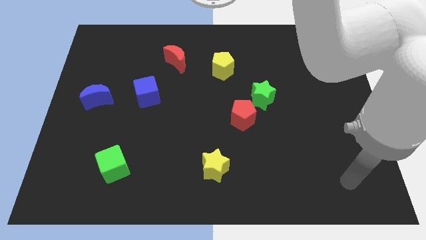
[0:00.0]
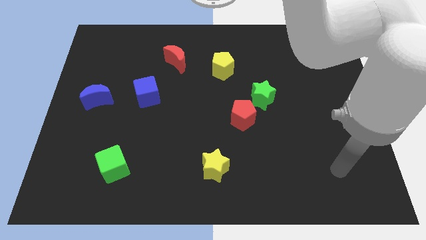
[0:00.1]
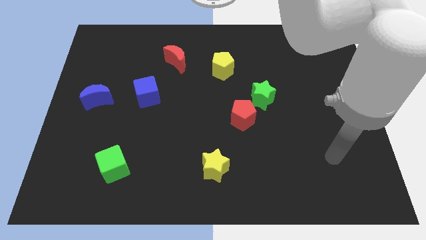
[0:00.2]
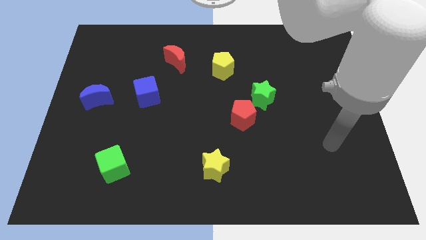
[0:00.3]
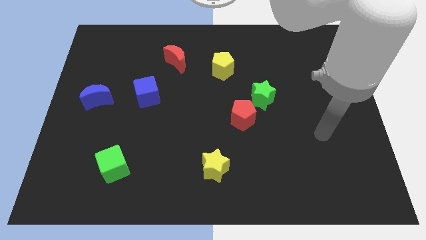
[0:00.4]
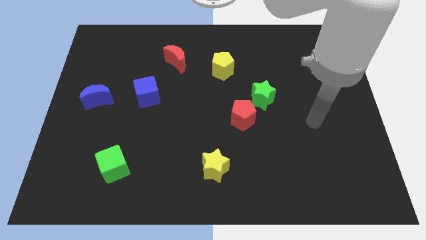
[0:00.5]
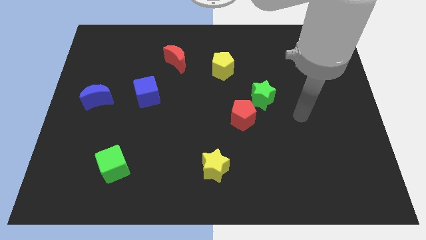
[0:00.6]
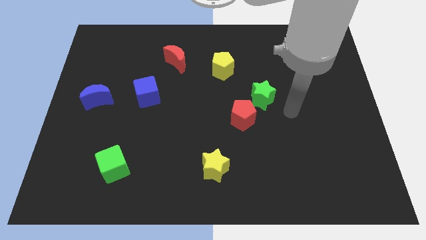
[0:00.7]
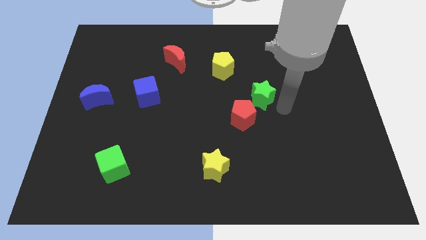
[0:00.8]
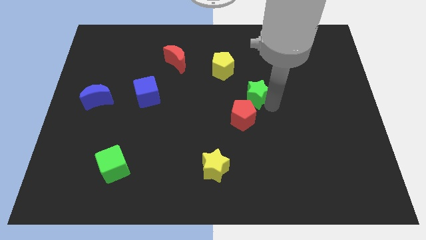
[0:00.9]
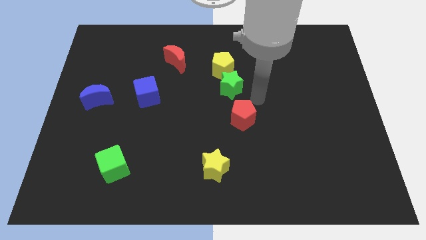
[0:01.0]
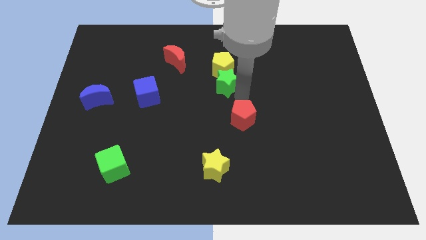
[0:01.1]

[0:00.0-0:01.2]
pull the red pentagon apart from the green star

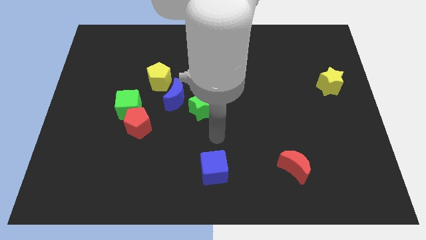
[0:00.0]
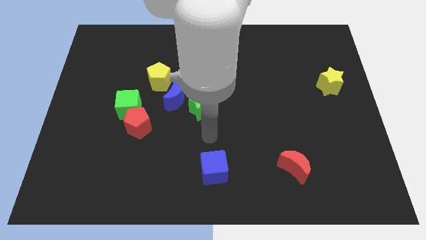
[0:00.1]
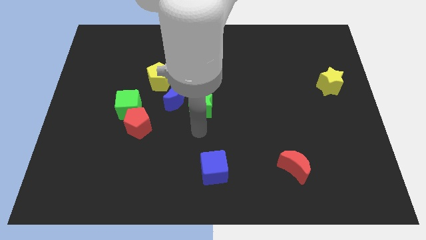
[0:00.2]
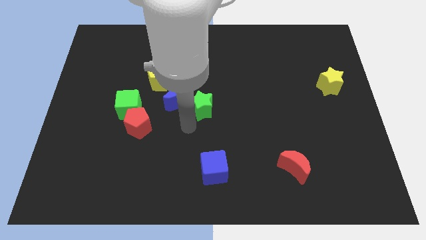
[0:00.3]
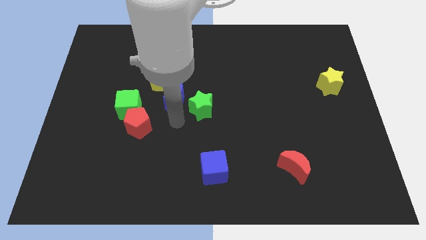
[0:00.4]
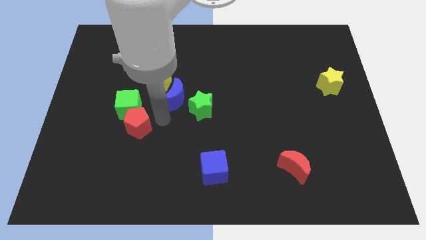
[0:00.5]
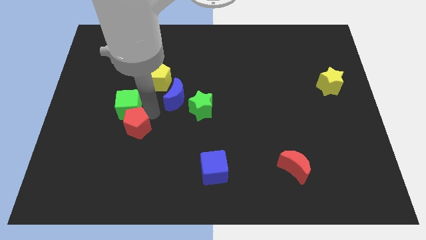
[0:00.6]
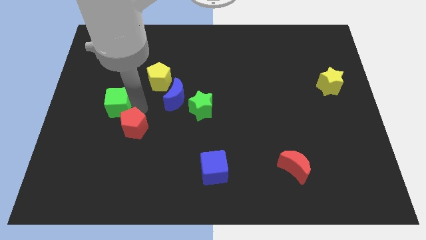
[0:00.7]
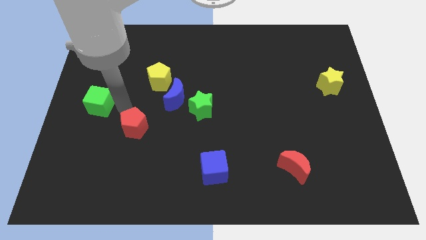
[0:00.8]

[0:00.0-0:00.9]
move the red pentagon away from the green cube

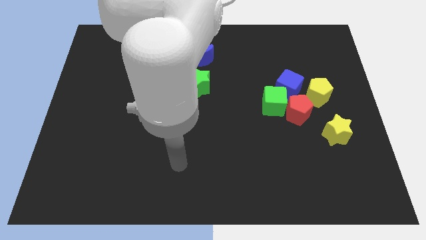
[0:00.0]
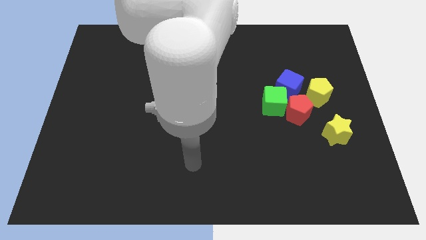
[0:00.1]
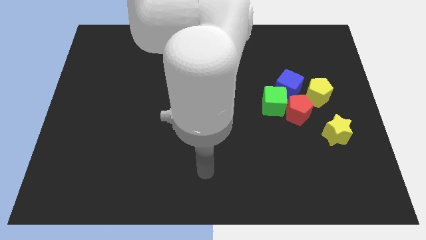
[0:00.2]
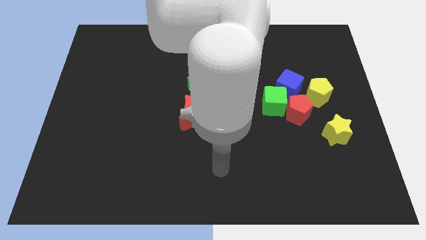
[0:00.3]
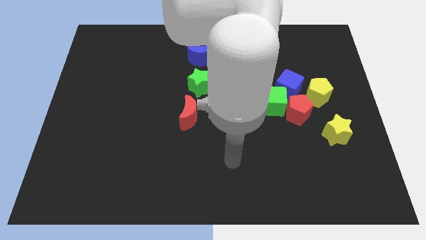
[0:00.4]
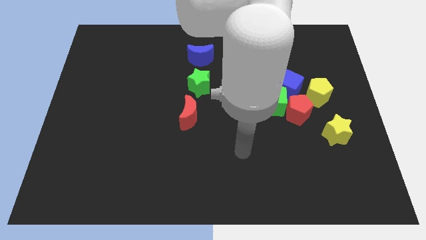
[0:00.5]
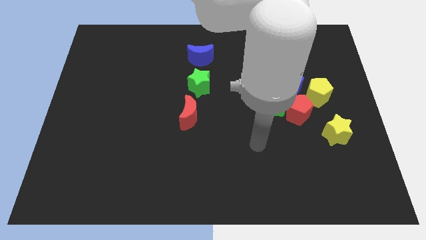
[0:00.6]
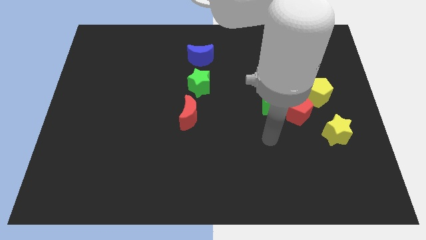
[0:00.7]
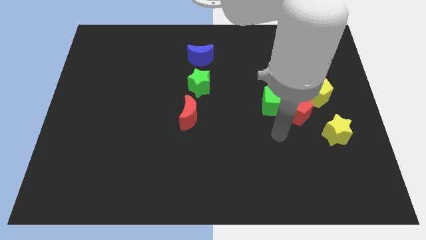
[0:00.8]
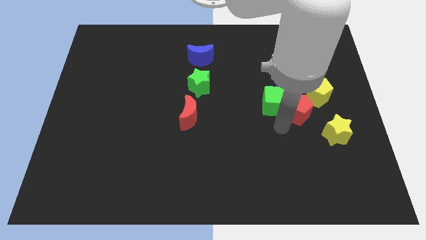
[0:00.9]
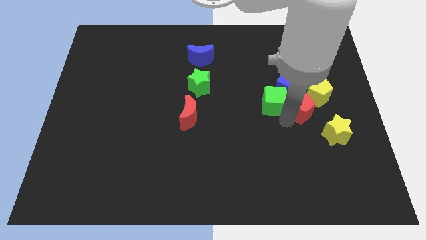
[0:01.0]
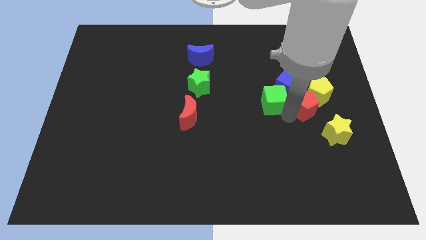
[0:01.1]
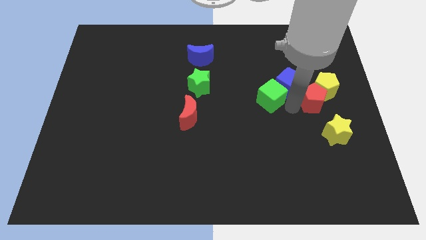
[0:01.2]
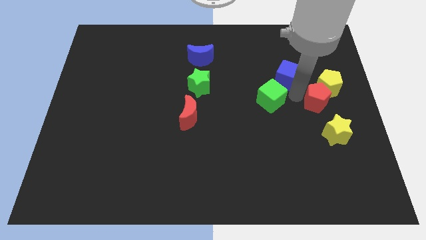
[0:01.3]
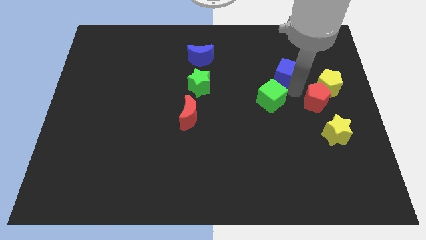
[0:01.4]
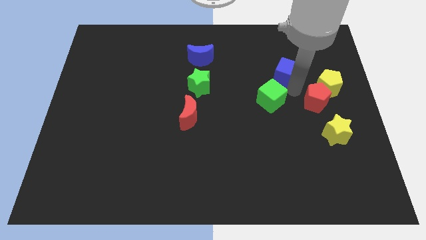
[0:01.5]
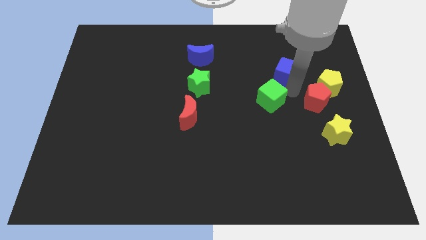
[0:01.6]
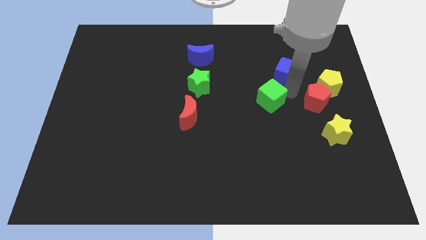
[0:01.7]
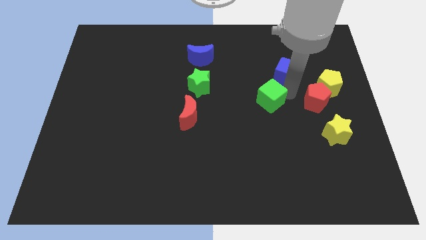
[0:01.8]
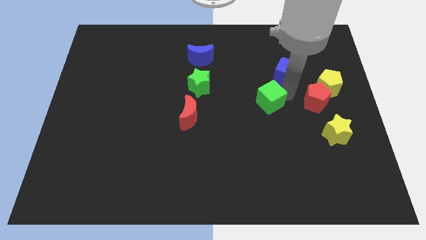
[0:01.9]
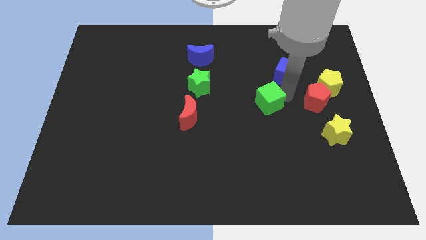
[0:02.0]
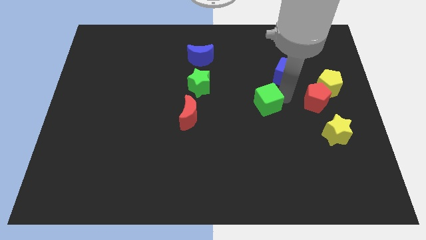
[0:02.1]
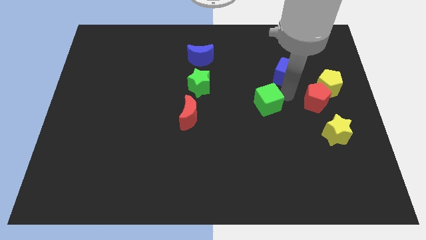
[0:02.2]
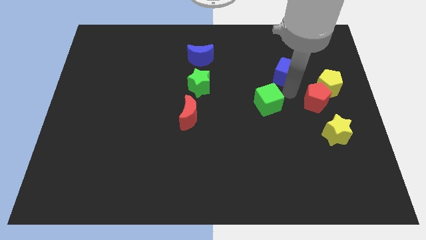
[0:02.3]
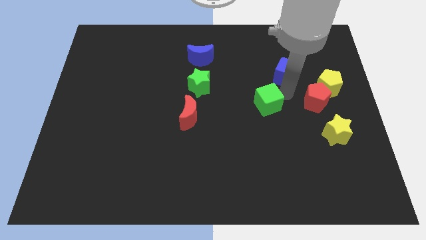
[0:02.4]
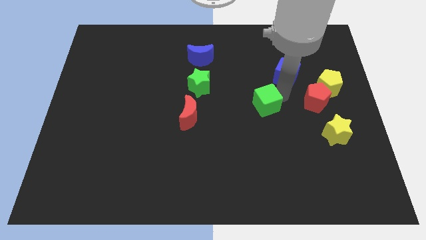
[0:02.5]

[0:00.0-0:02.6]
separate the green cube from the red pentagon and blue cube

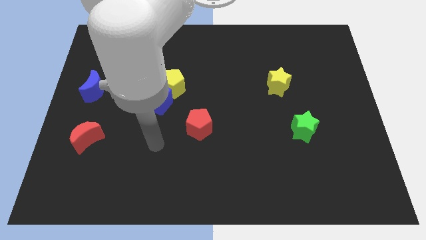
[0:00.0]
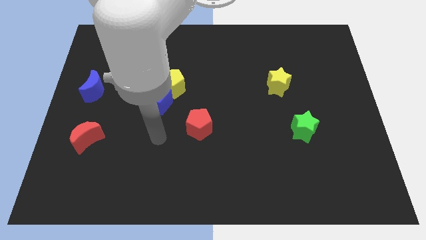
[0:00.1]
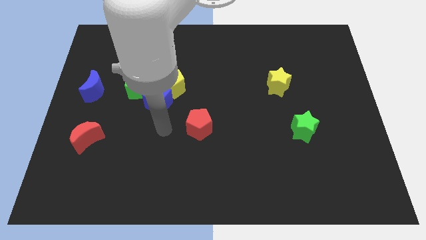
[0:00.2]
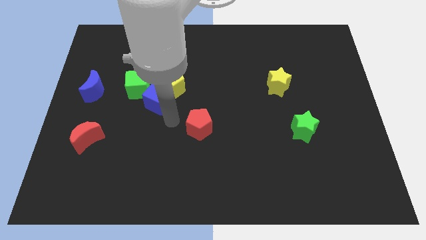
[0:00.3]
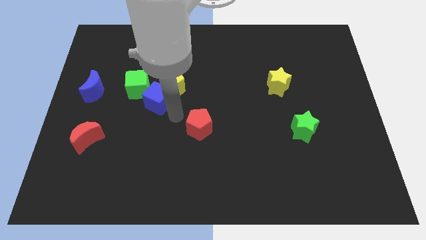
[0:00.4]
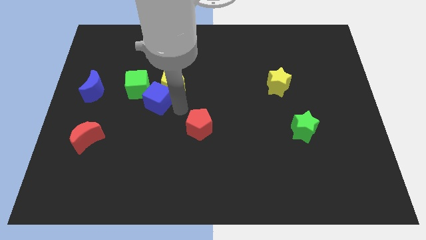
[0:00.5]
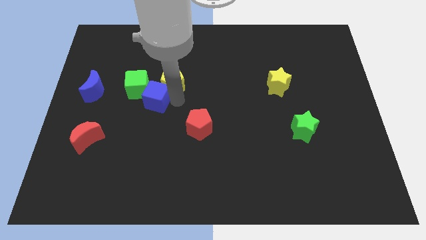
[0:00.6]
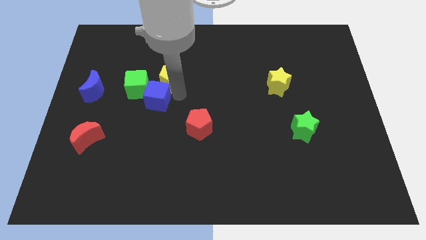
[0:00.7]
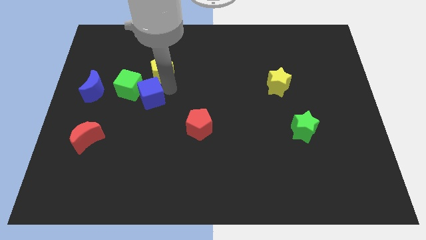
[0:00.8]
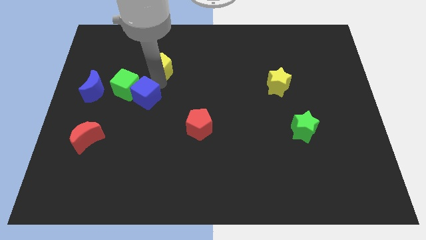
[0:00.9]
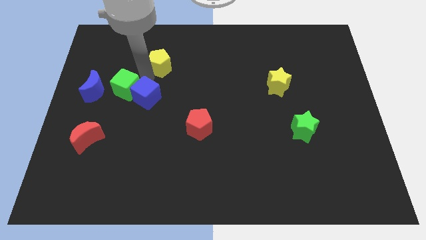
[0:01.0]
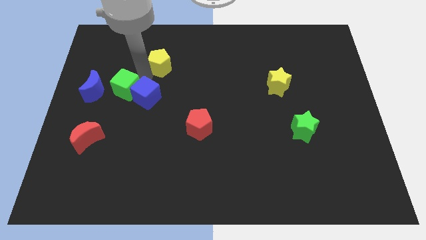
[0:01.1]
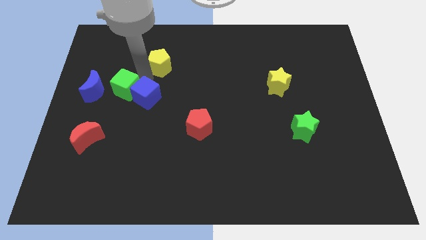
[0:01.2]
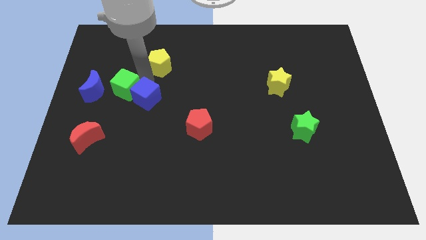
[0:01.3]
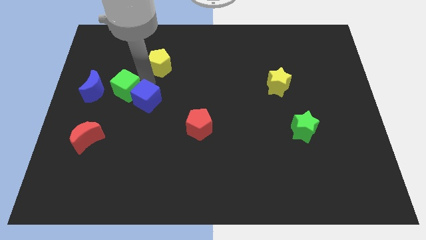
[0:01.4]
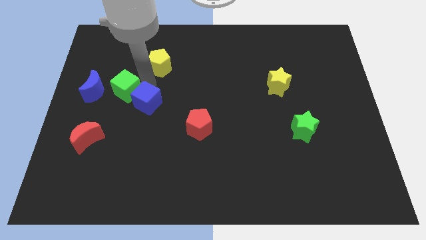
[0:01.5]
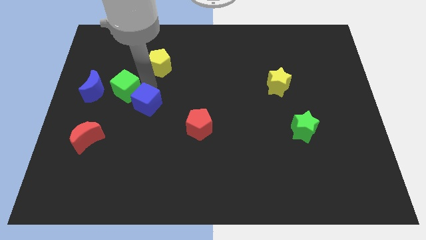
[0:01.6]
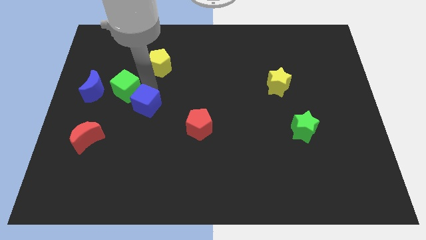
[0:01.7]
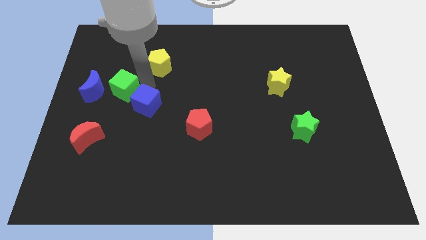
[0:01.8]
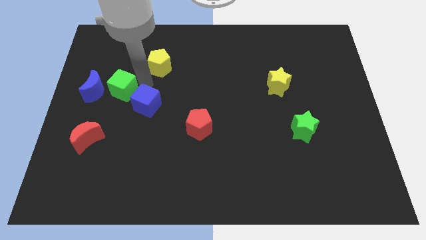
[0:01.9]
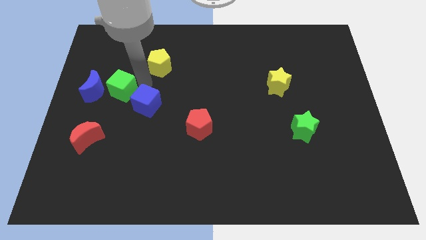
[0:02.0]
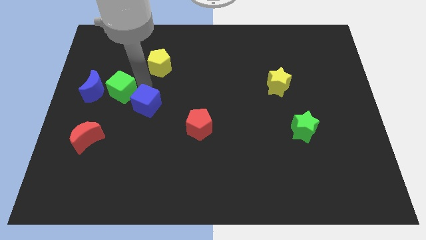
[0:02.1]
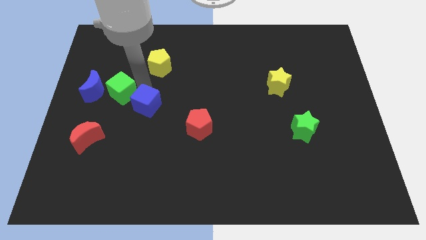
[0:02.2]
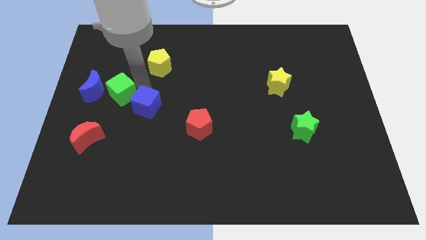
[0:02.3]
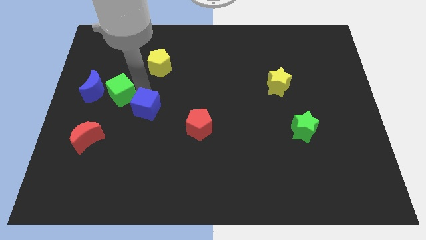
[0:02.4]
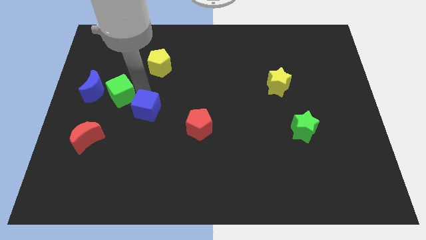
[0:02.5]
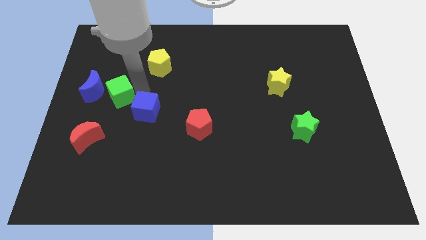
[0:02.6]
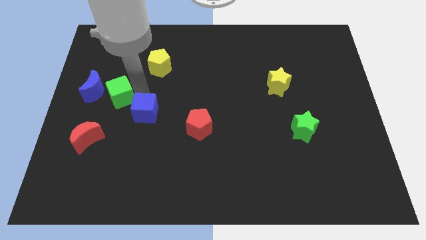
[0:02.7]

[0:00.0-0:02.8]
move the blue cube away from the yellow pentagon and green cube

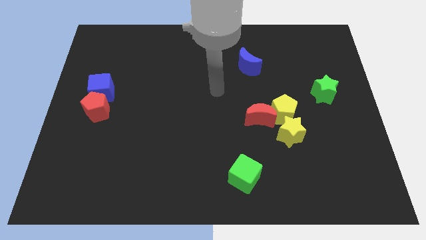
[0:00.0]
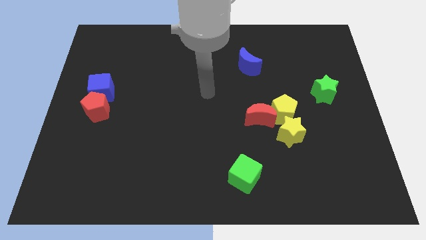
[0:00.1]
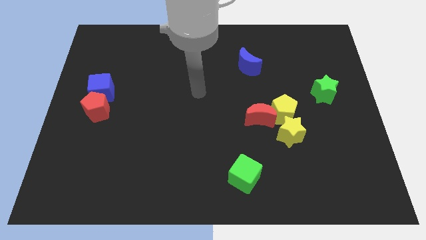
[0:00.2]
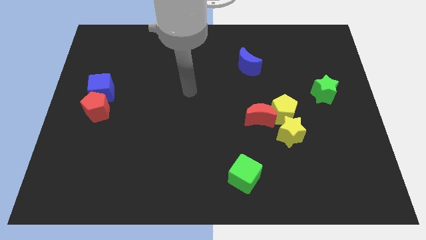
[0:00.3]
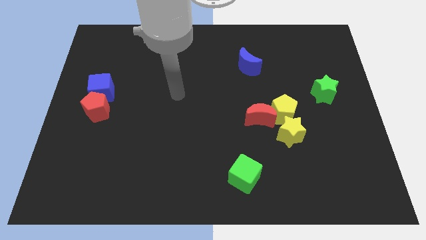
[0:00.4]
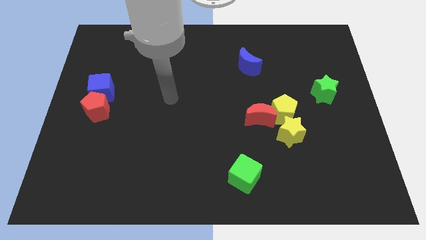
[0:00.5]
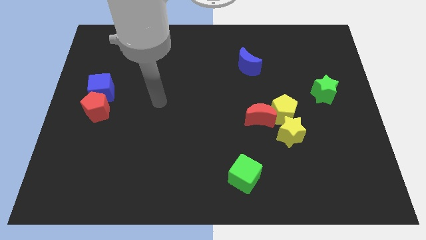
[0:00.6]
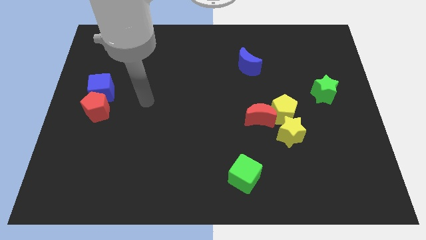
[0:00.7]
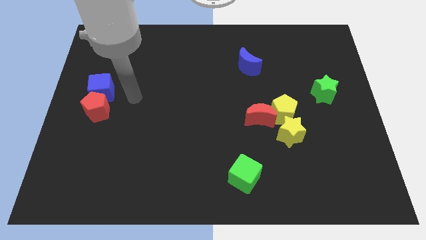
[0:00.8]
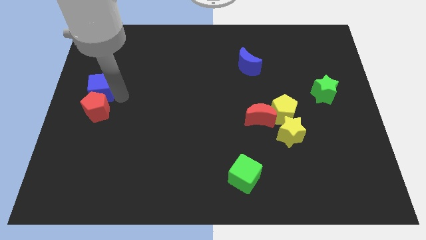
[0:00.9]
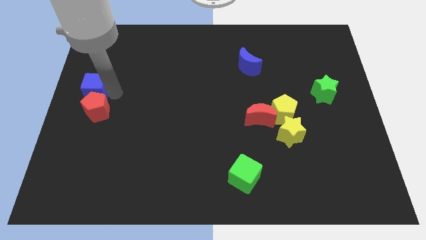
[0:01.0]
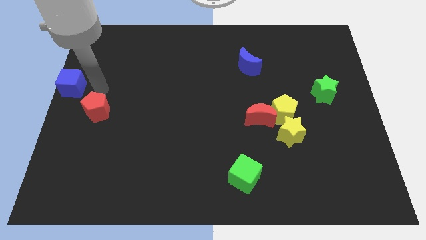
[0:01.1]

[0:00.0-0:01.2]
separate the red pentagon from the blue cube

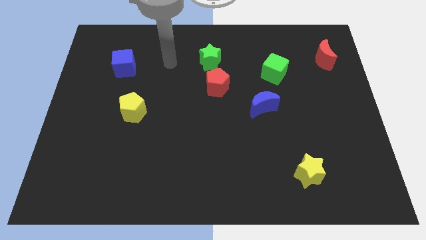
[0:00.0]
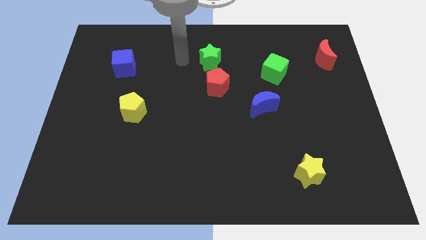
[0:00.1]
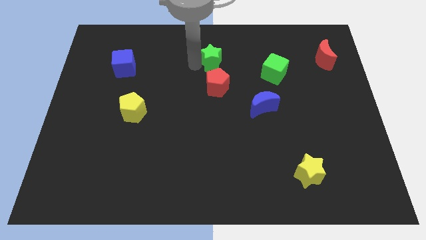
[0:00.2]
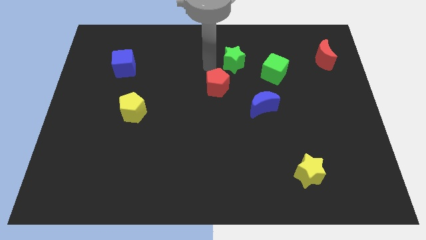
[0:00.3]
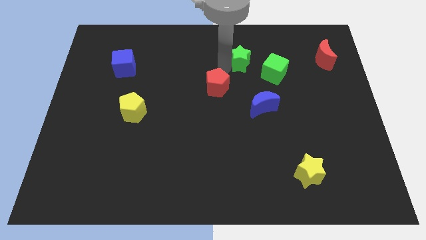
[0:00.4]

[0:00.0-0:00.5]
separate the red pentagon from the green star

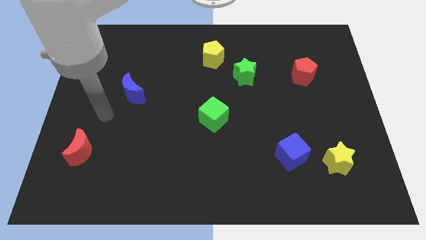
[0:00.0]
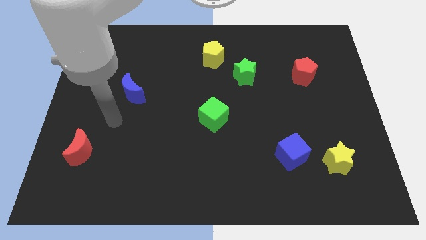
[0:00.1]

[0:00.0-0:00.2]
pull the blue cube apart from the yellow star

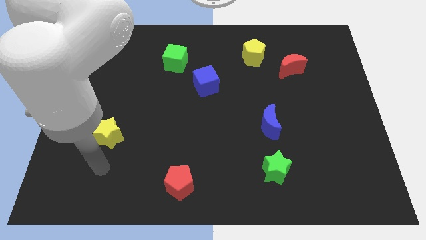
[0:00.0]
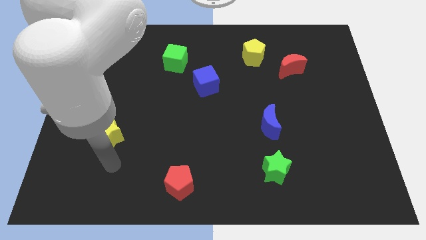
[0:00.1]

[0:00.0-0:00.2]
pull the red moon apart from the yellow pentagon
